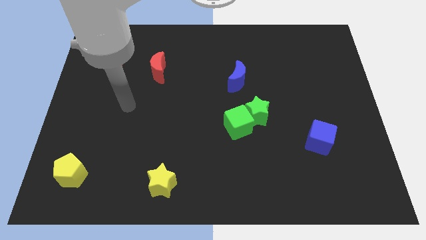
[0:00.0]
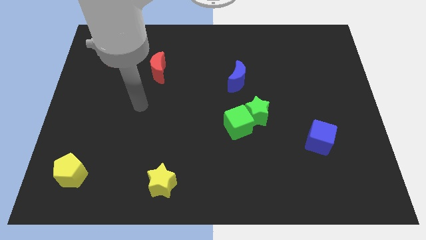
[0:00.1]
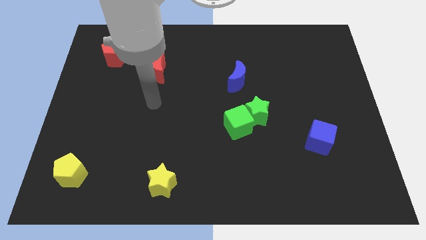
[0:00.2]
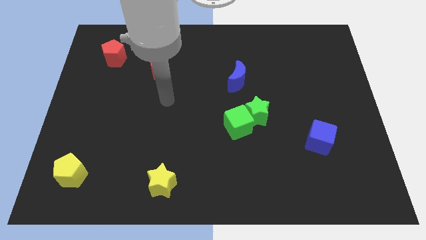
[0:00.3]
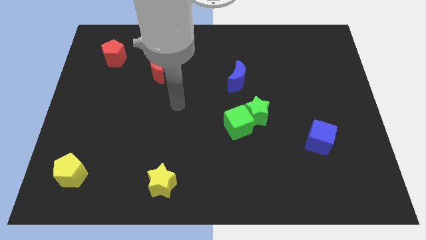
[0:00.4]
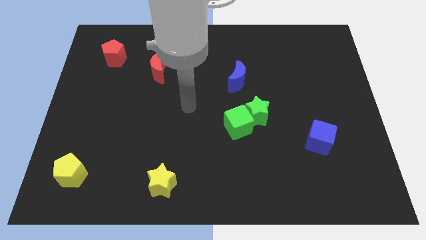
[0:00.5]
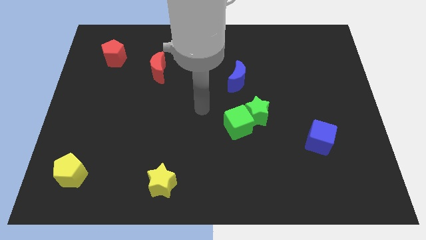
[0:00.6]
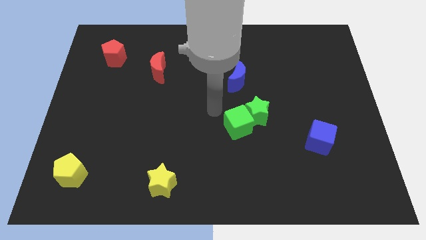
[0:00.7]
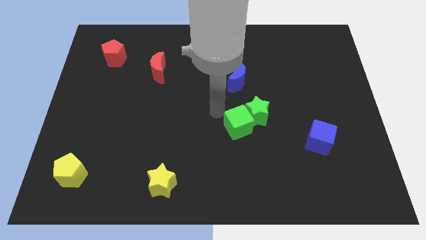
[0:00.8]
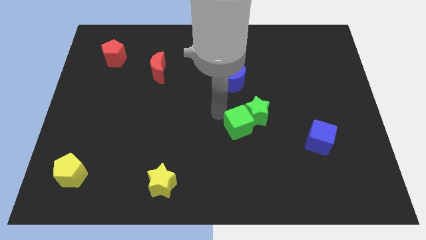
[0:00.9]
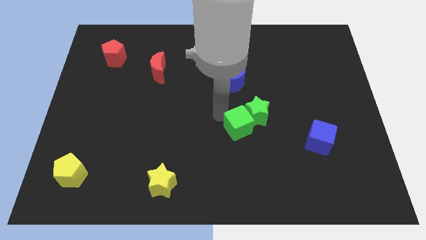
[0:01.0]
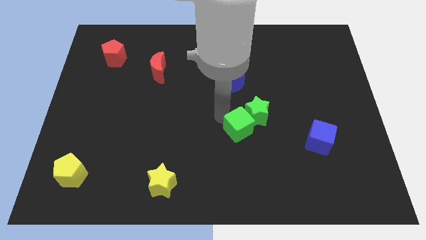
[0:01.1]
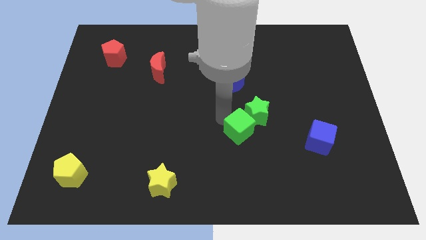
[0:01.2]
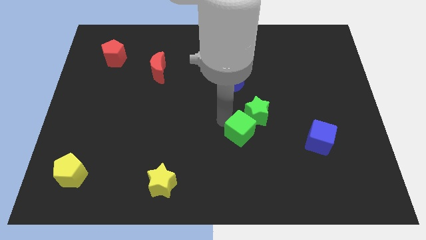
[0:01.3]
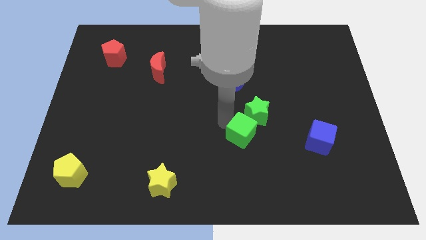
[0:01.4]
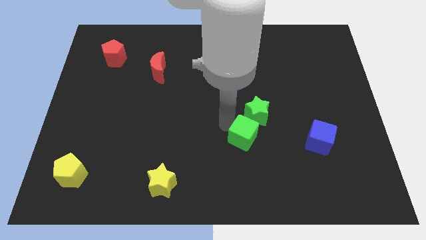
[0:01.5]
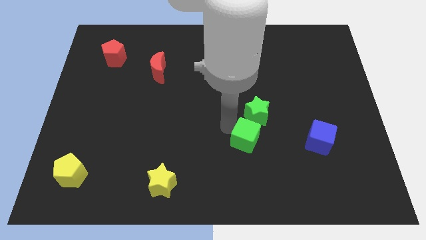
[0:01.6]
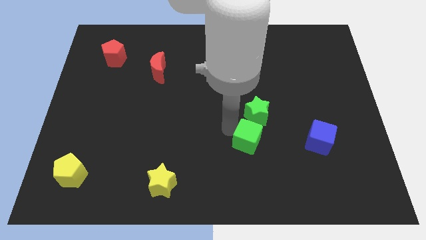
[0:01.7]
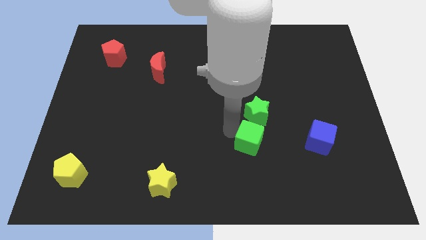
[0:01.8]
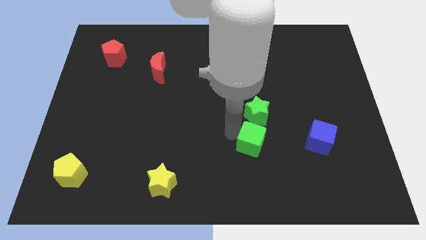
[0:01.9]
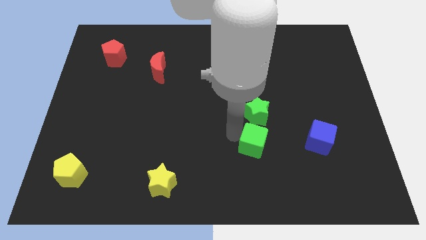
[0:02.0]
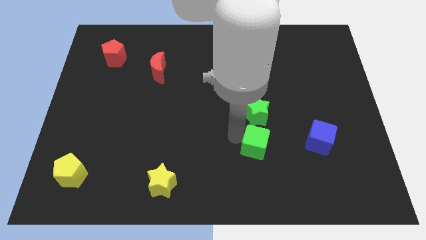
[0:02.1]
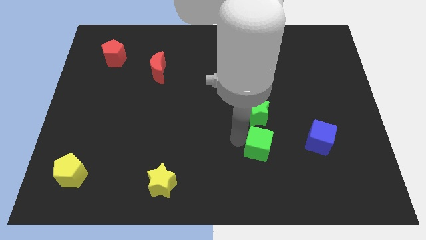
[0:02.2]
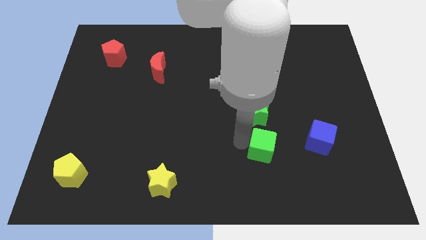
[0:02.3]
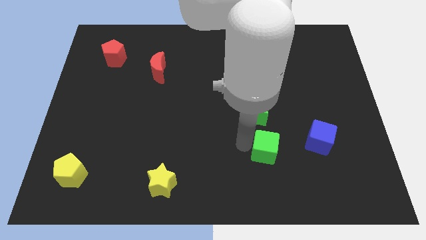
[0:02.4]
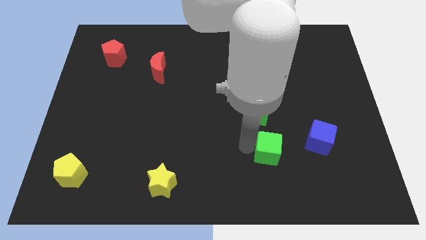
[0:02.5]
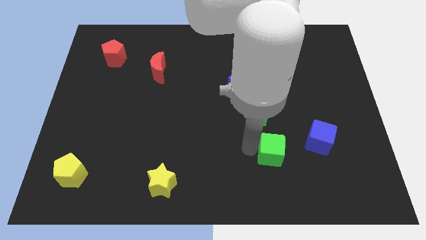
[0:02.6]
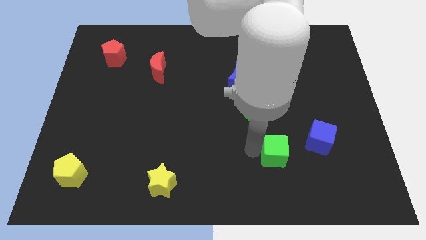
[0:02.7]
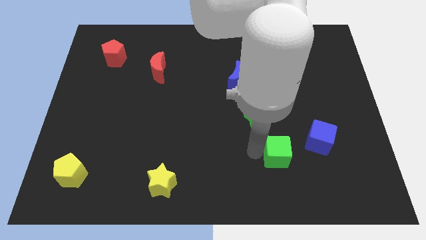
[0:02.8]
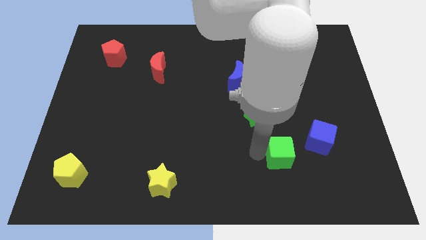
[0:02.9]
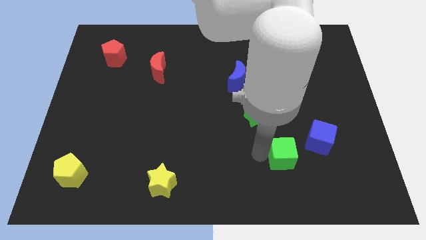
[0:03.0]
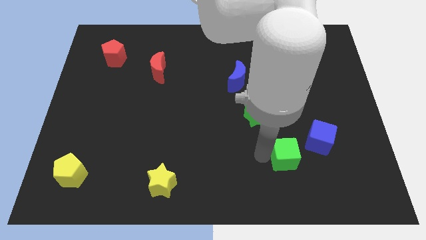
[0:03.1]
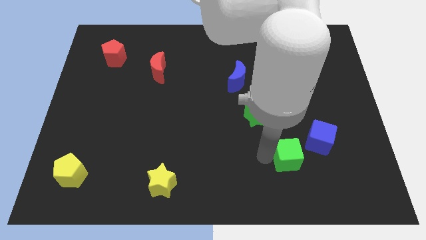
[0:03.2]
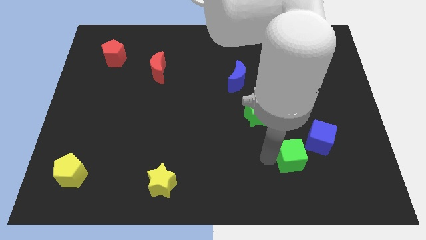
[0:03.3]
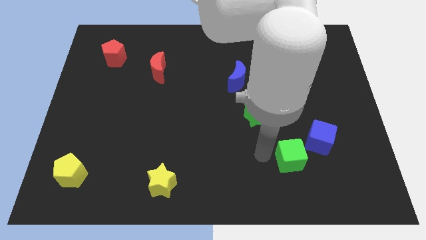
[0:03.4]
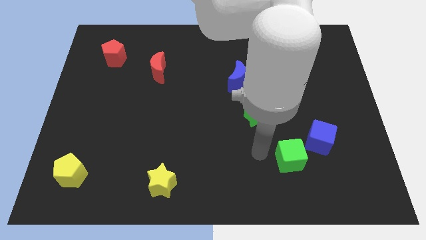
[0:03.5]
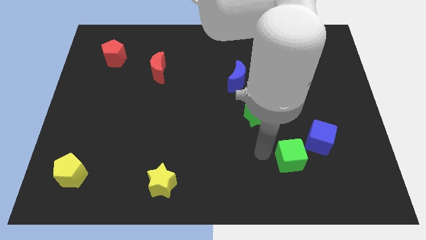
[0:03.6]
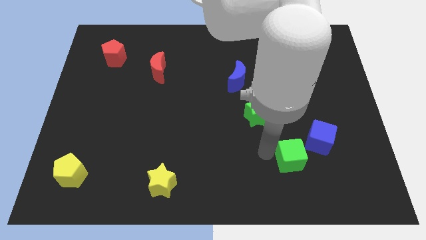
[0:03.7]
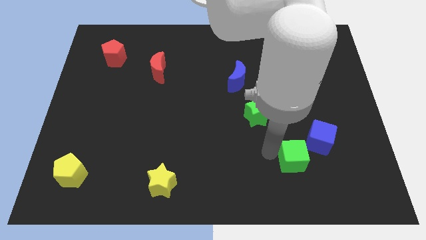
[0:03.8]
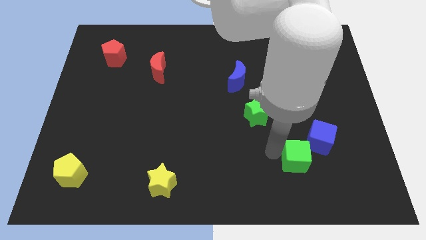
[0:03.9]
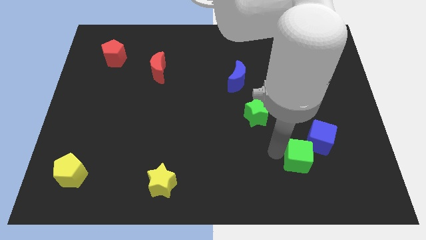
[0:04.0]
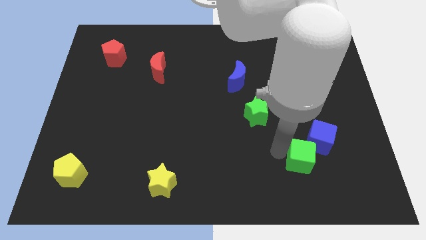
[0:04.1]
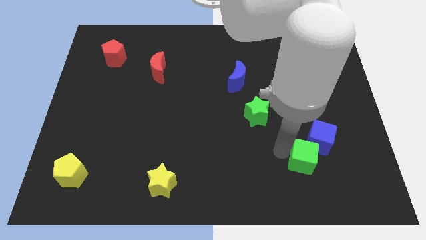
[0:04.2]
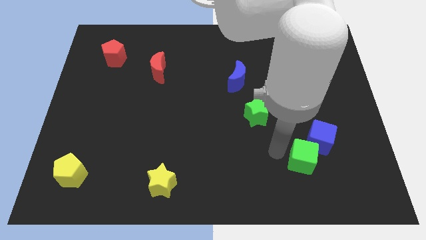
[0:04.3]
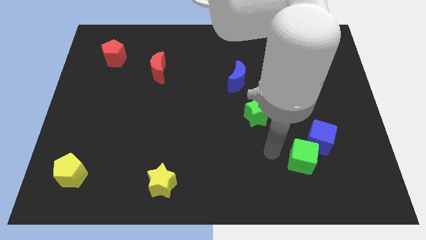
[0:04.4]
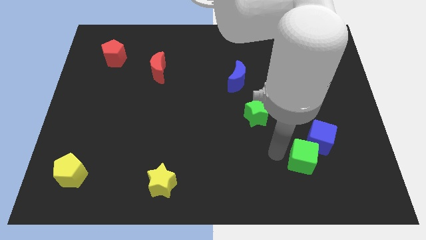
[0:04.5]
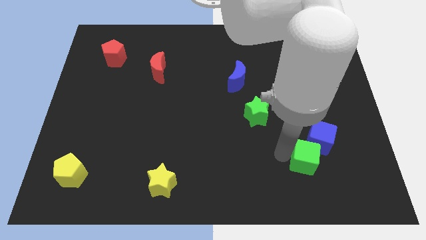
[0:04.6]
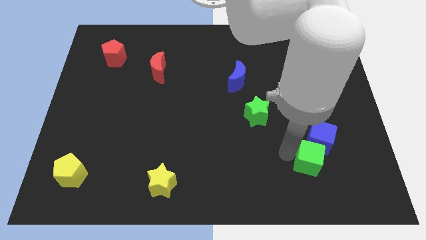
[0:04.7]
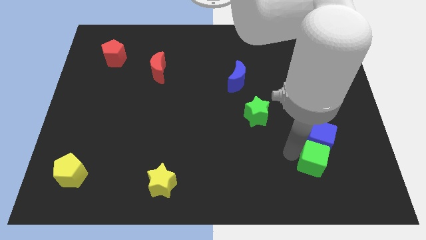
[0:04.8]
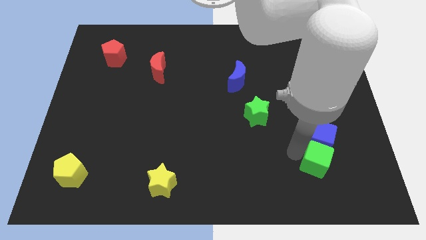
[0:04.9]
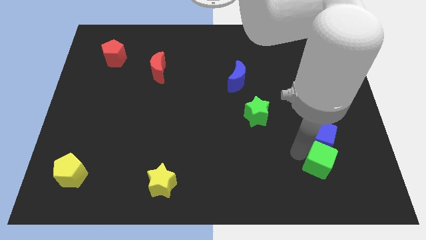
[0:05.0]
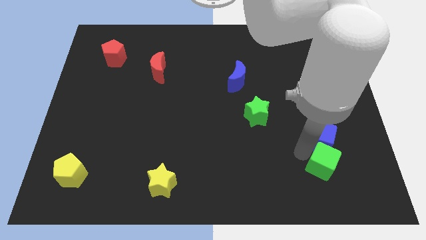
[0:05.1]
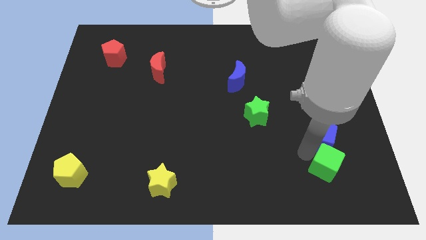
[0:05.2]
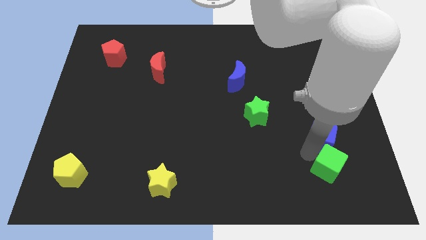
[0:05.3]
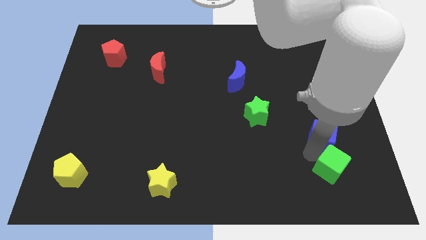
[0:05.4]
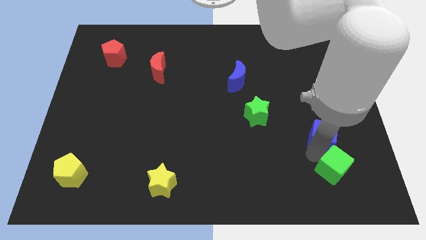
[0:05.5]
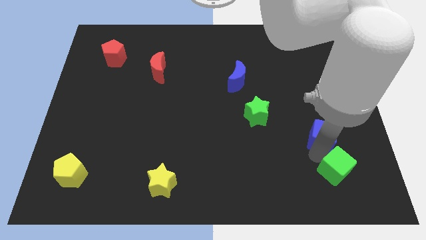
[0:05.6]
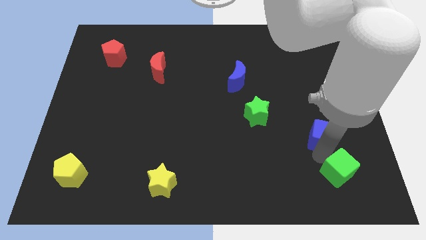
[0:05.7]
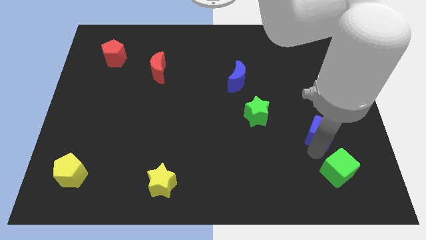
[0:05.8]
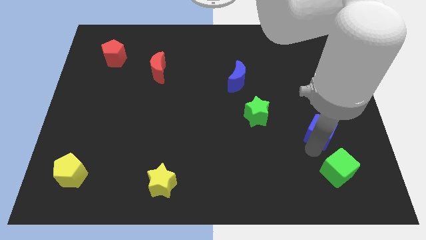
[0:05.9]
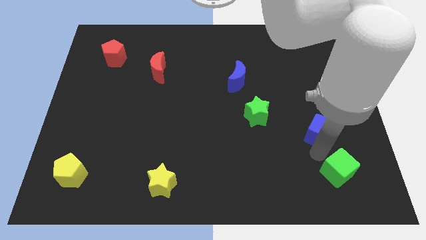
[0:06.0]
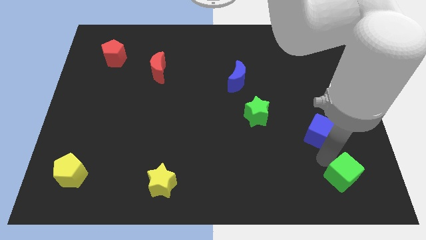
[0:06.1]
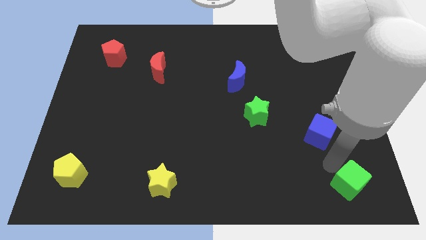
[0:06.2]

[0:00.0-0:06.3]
push the green cube to the bottom right
